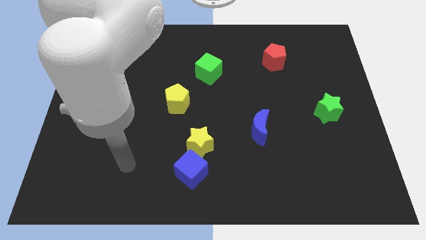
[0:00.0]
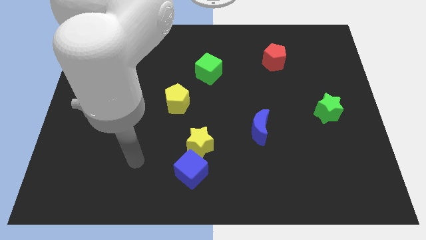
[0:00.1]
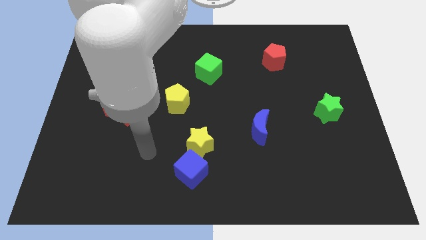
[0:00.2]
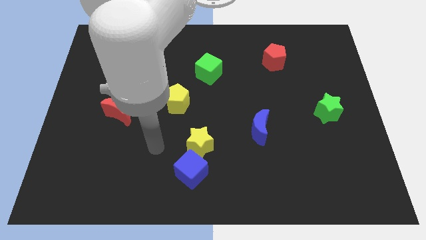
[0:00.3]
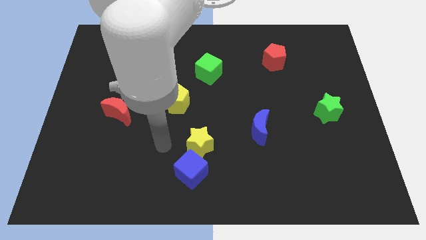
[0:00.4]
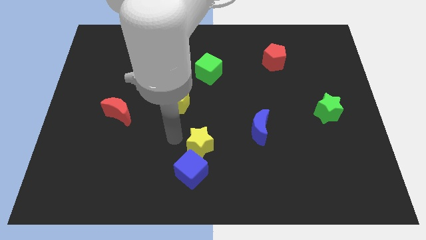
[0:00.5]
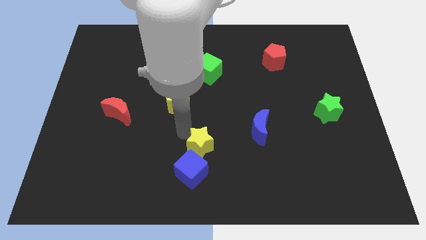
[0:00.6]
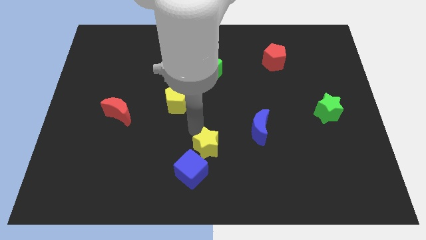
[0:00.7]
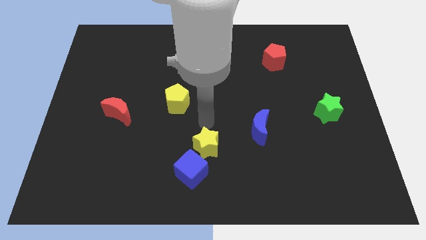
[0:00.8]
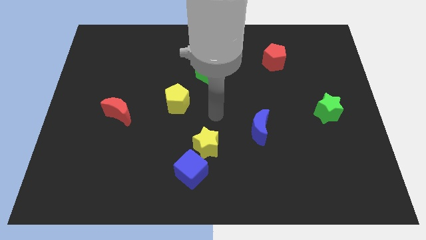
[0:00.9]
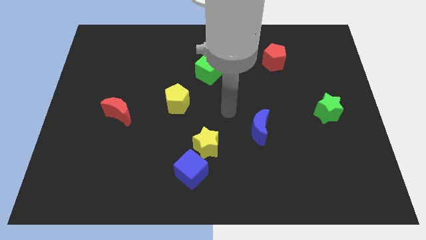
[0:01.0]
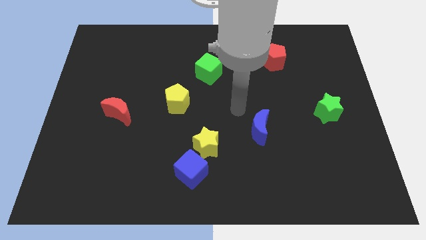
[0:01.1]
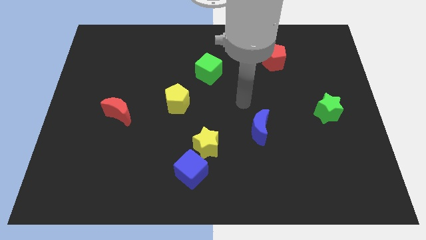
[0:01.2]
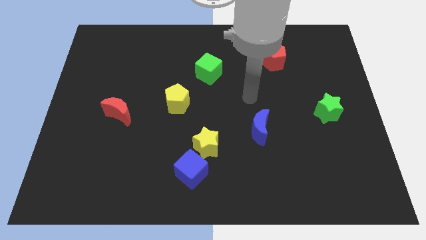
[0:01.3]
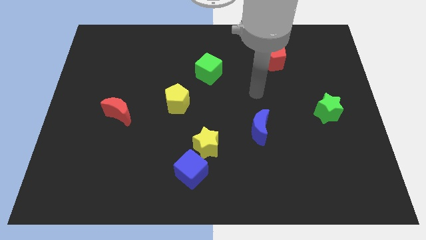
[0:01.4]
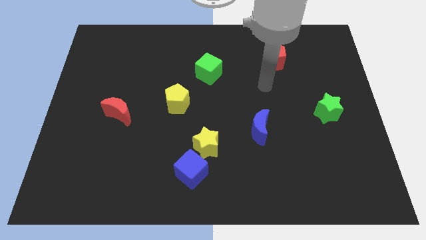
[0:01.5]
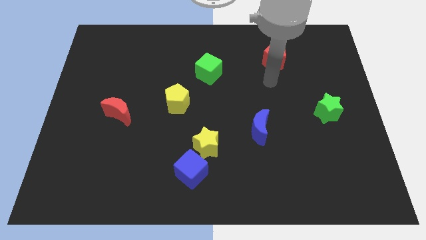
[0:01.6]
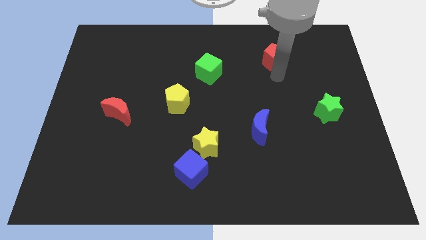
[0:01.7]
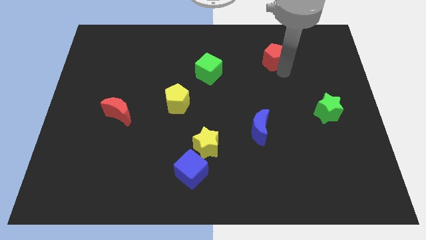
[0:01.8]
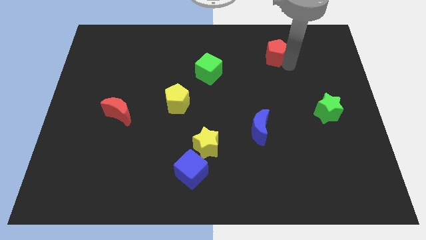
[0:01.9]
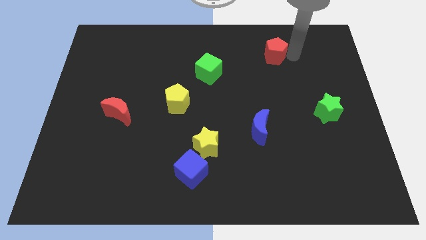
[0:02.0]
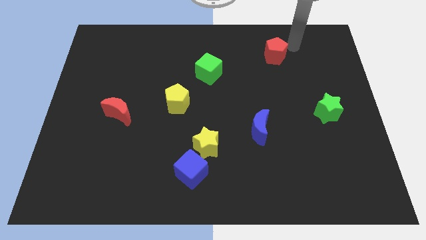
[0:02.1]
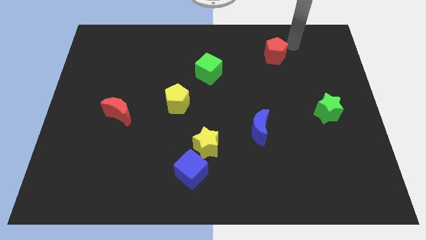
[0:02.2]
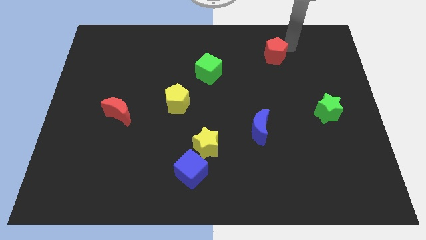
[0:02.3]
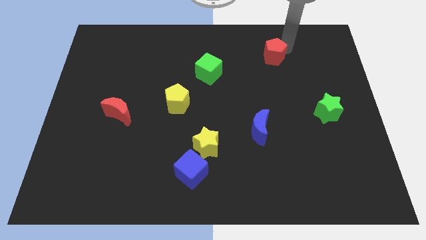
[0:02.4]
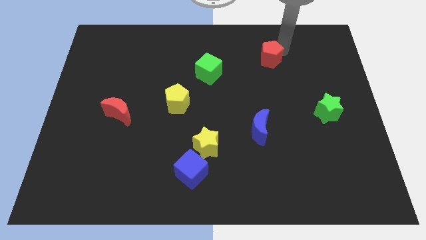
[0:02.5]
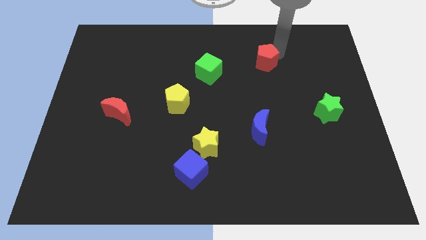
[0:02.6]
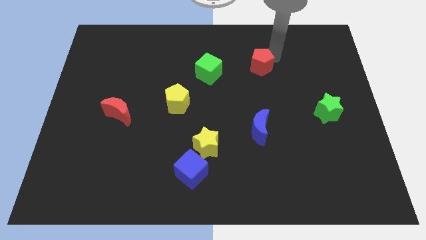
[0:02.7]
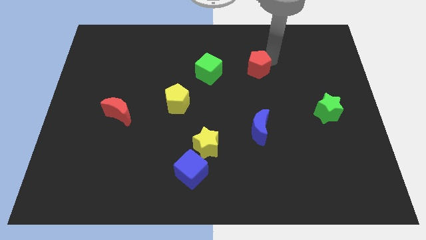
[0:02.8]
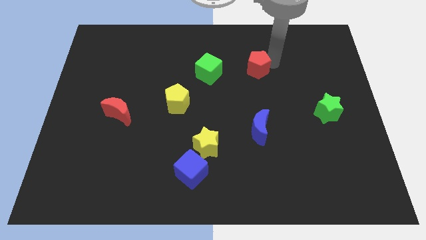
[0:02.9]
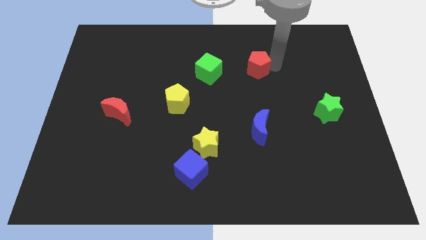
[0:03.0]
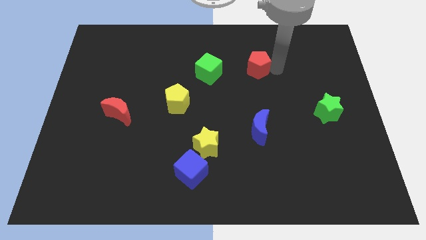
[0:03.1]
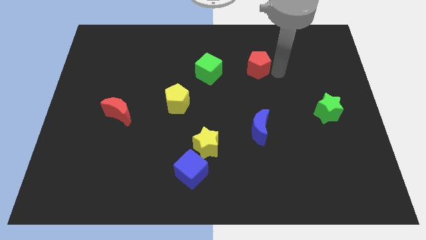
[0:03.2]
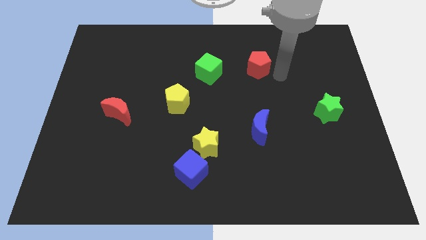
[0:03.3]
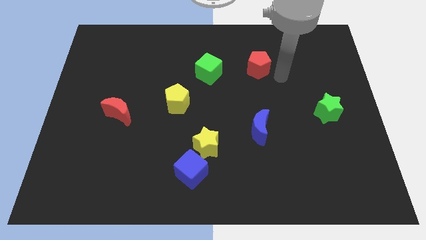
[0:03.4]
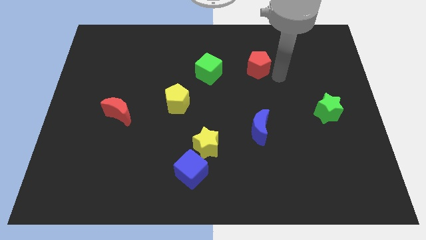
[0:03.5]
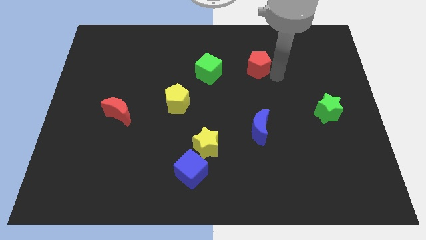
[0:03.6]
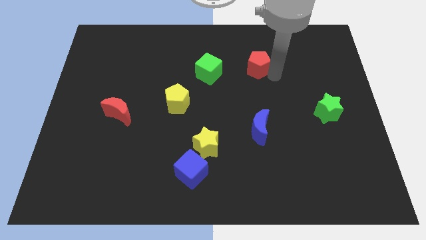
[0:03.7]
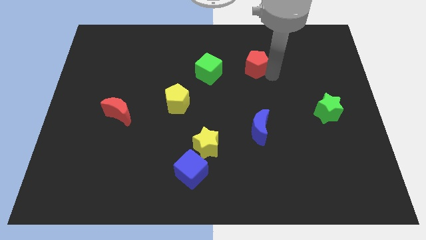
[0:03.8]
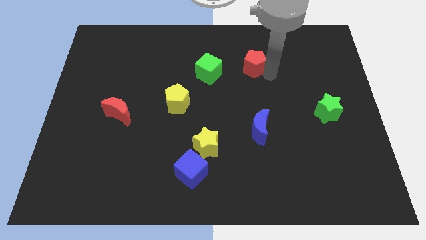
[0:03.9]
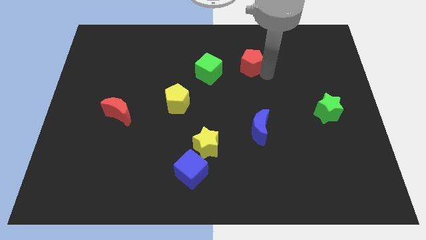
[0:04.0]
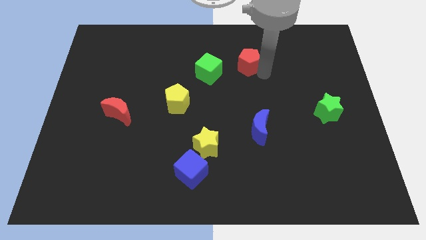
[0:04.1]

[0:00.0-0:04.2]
slightly move the red pentagon to the left

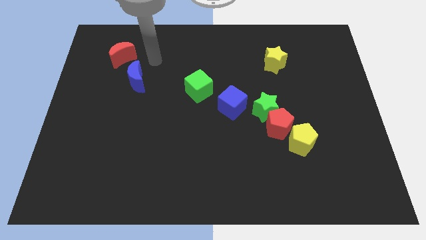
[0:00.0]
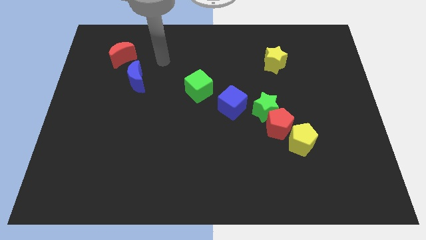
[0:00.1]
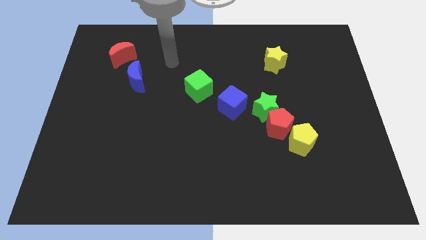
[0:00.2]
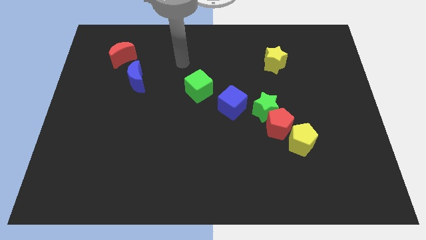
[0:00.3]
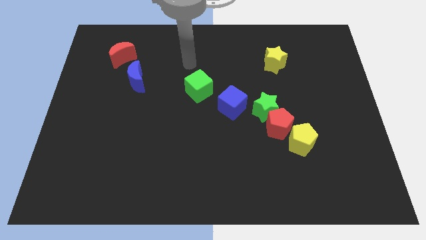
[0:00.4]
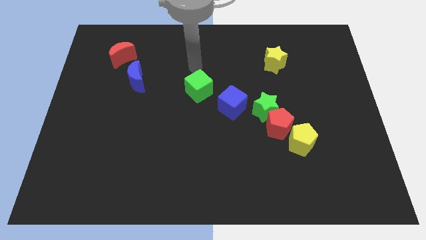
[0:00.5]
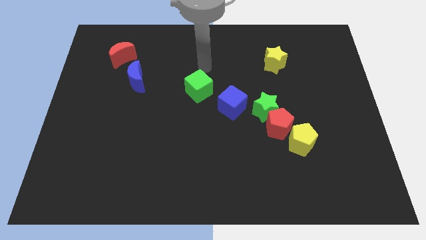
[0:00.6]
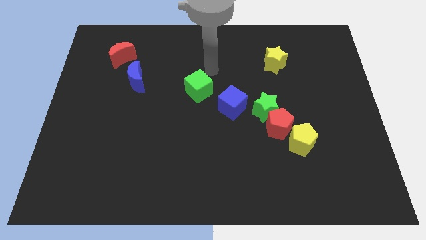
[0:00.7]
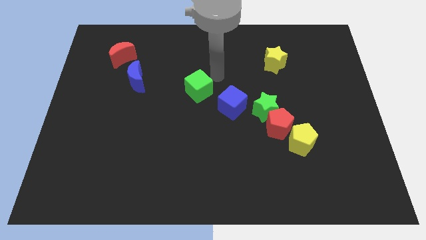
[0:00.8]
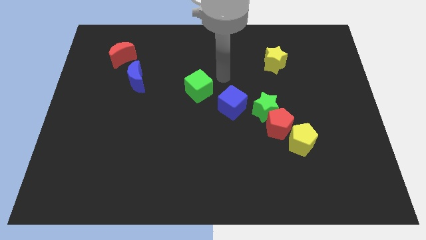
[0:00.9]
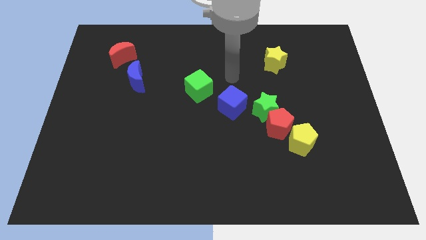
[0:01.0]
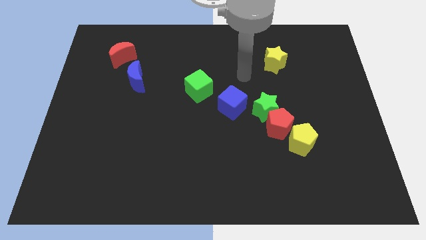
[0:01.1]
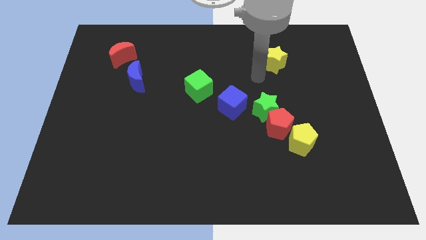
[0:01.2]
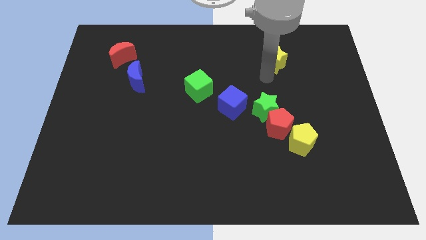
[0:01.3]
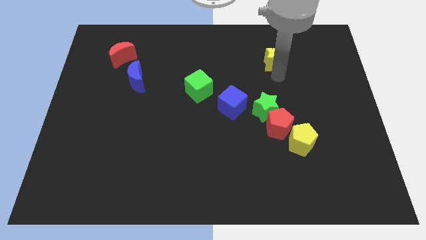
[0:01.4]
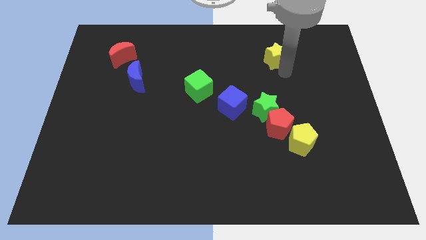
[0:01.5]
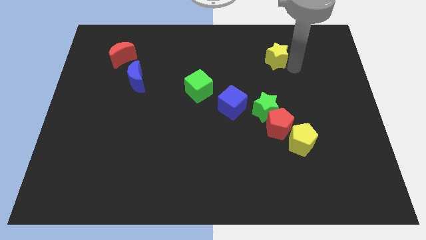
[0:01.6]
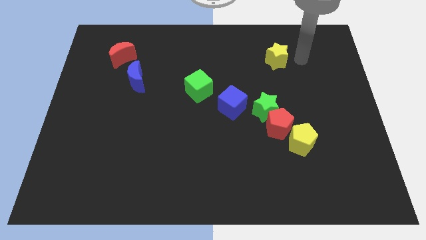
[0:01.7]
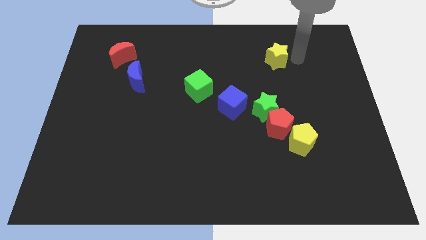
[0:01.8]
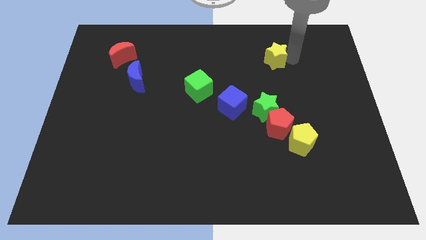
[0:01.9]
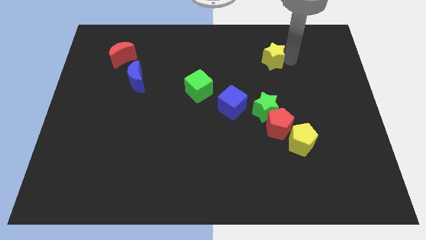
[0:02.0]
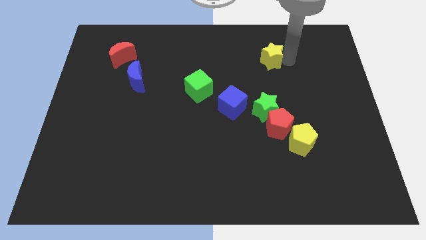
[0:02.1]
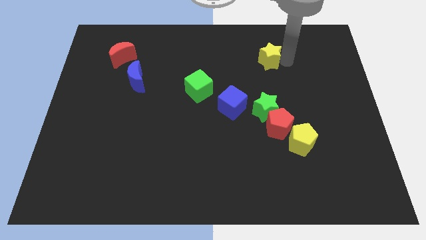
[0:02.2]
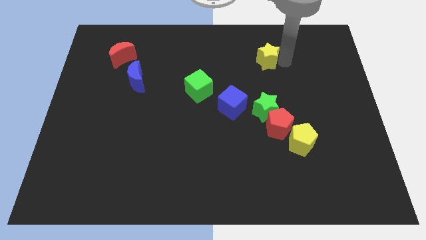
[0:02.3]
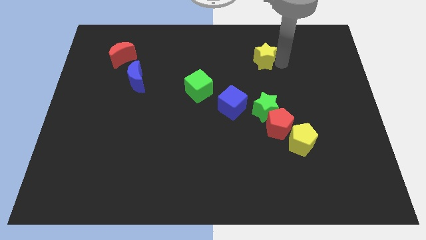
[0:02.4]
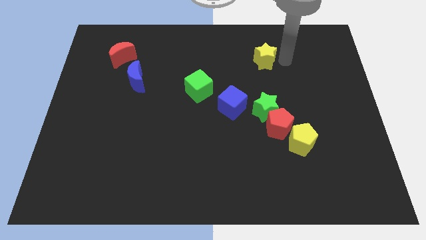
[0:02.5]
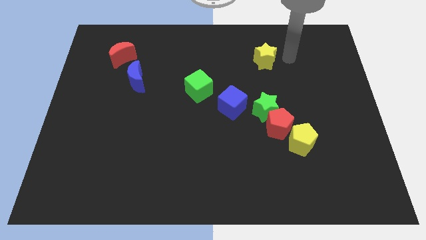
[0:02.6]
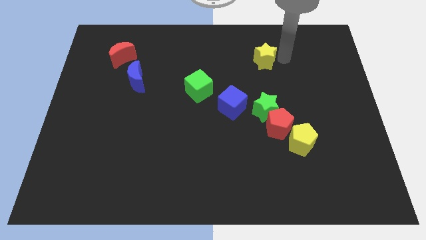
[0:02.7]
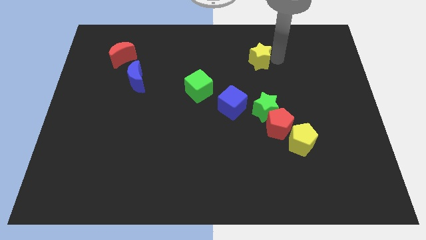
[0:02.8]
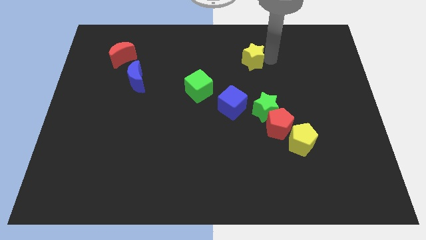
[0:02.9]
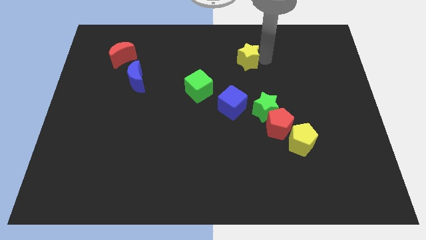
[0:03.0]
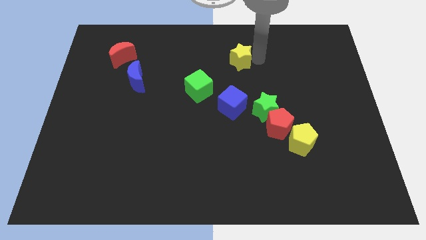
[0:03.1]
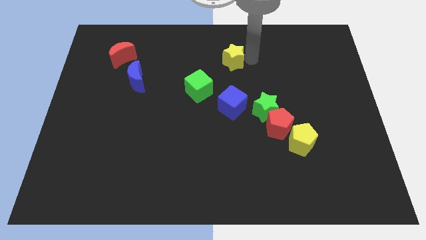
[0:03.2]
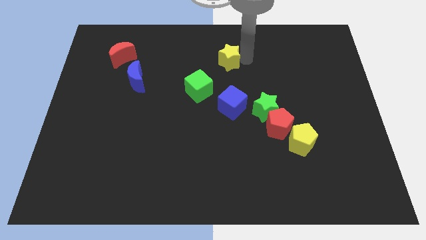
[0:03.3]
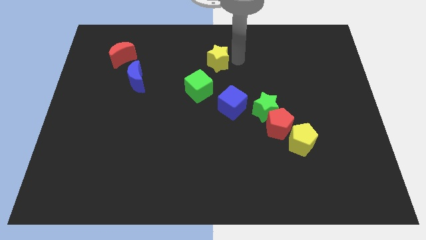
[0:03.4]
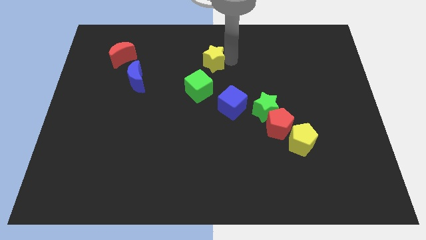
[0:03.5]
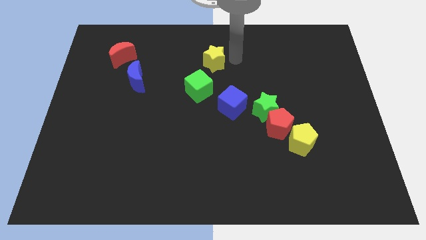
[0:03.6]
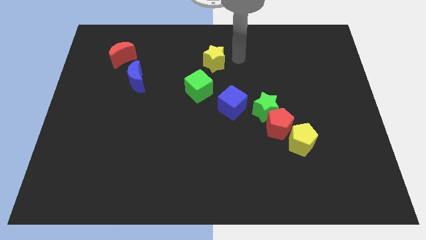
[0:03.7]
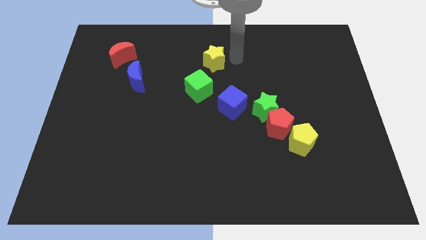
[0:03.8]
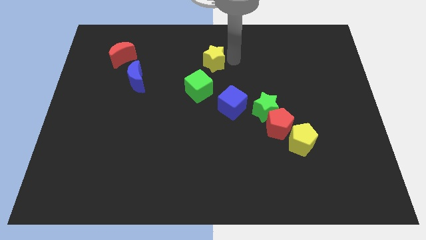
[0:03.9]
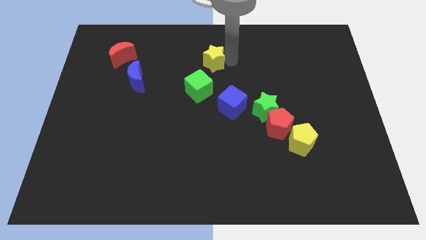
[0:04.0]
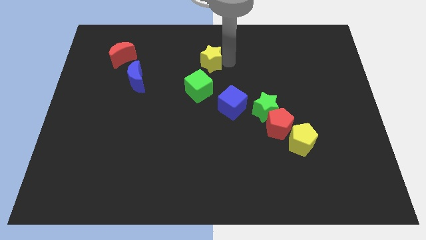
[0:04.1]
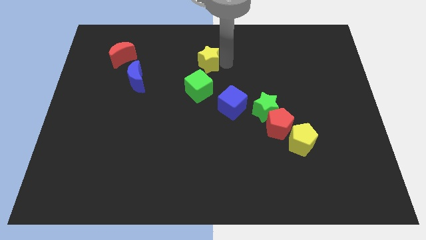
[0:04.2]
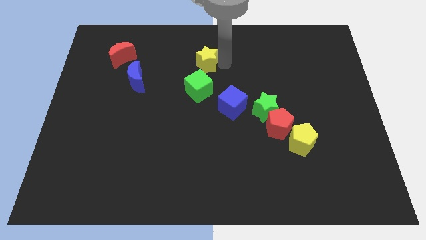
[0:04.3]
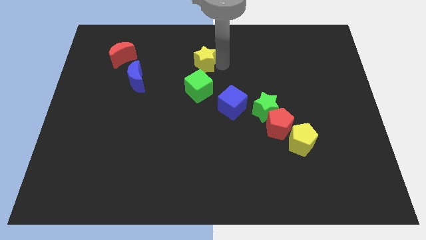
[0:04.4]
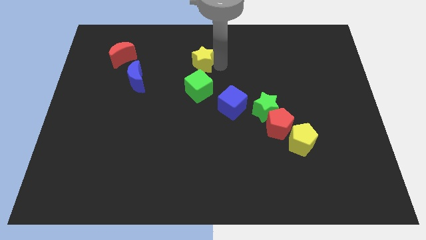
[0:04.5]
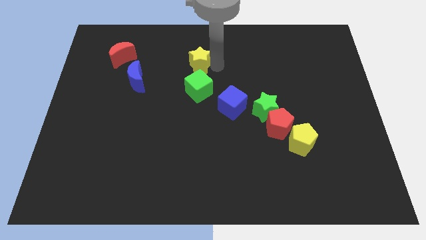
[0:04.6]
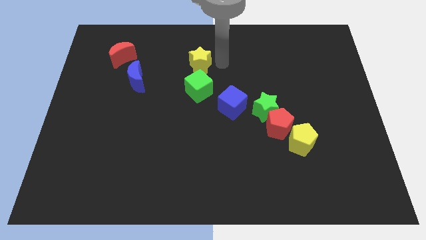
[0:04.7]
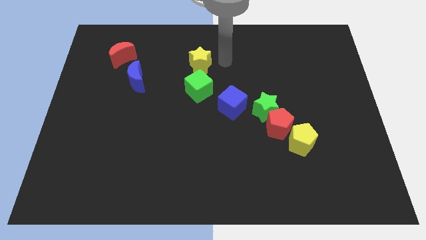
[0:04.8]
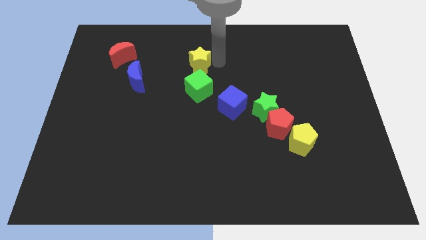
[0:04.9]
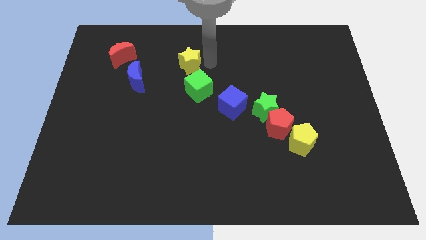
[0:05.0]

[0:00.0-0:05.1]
slide the yellow star left
